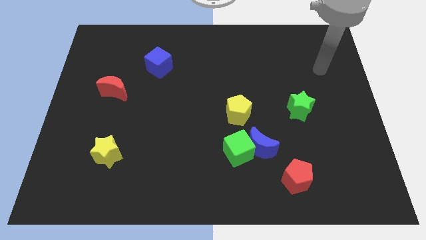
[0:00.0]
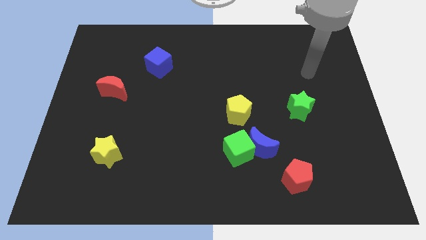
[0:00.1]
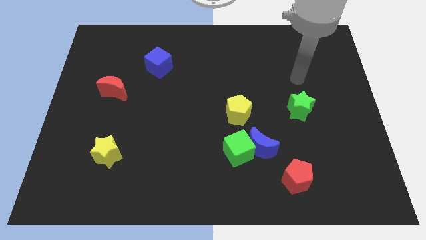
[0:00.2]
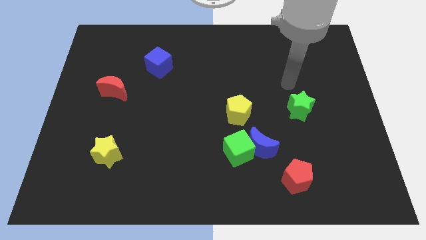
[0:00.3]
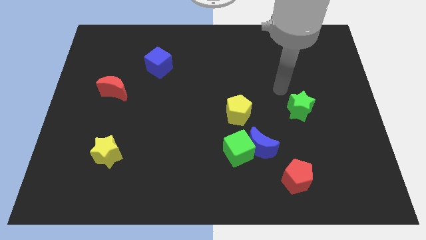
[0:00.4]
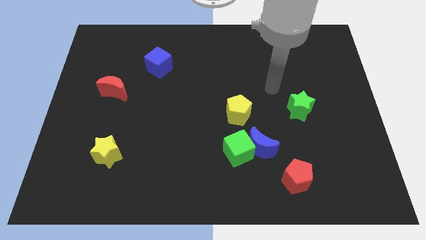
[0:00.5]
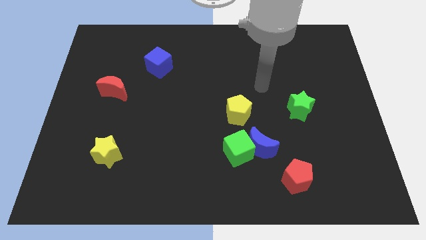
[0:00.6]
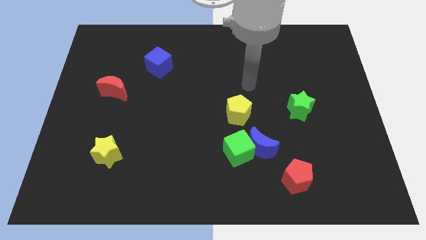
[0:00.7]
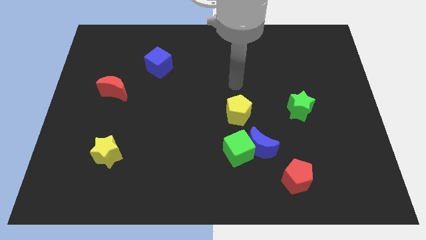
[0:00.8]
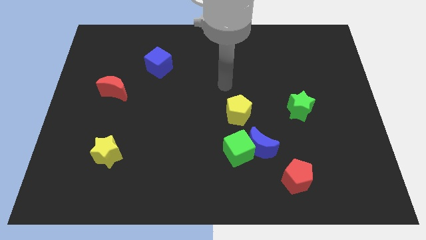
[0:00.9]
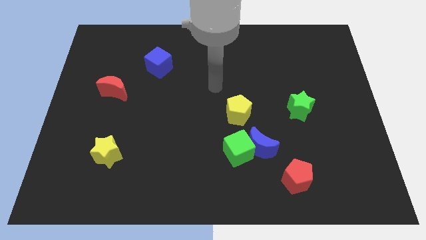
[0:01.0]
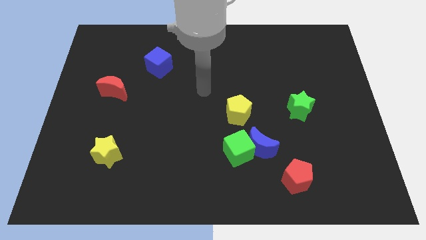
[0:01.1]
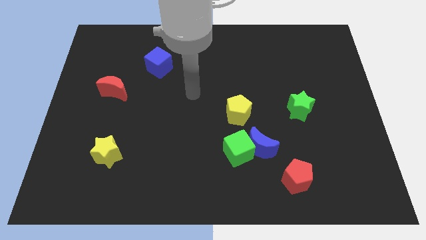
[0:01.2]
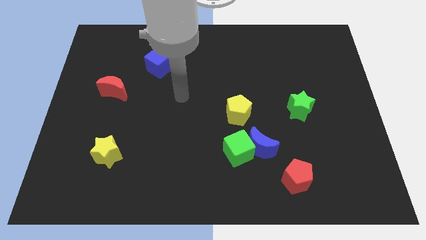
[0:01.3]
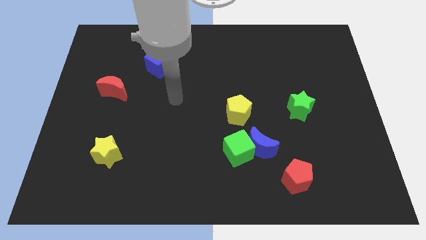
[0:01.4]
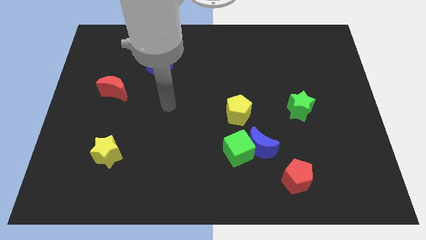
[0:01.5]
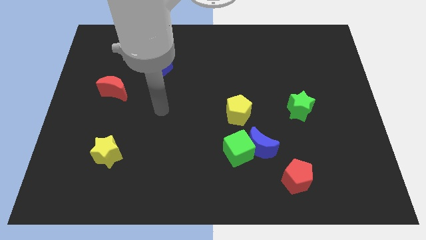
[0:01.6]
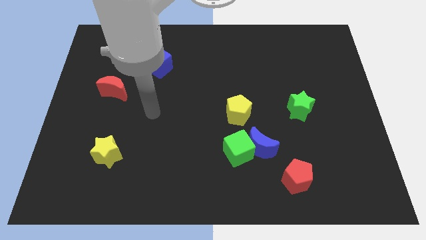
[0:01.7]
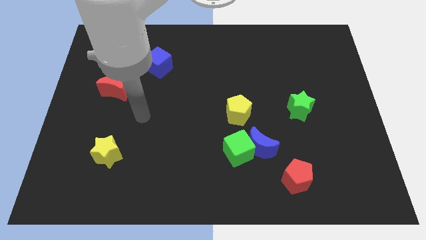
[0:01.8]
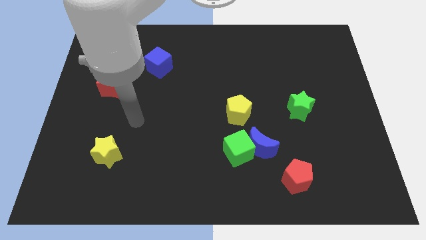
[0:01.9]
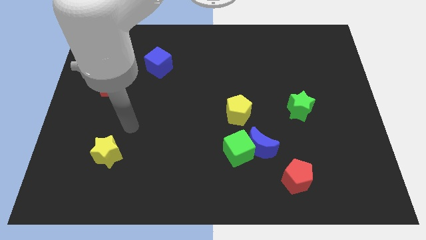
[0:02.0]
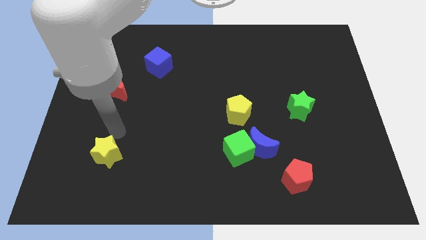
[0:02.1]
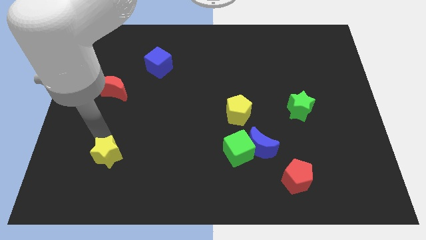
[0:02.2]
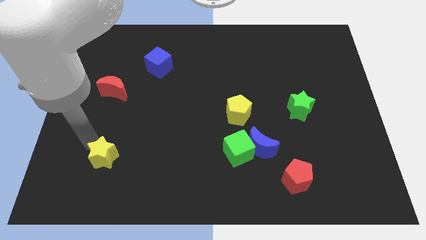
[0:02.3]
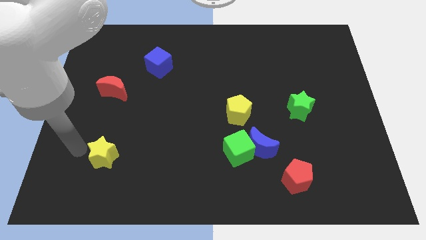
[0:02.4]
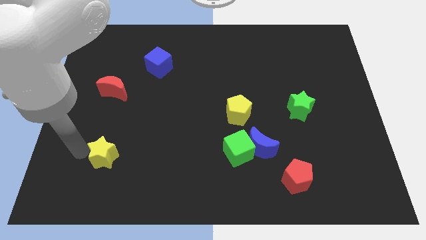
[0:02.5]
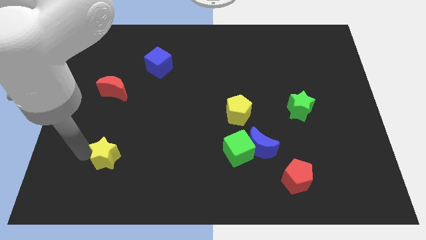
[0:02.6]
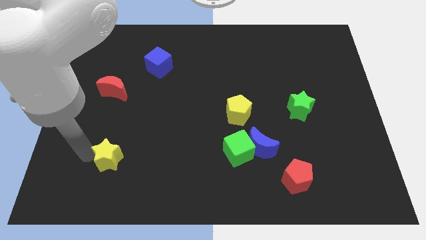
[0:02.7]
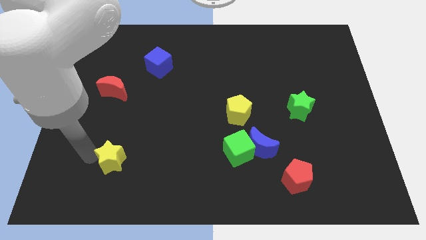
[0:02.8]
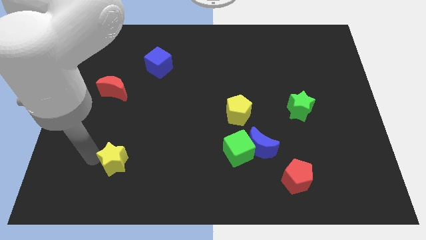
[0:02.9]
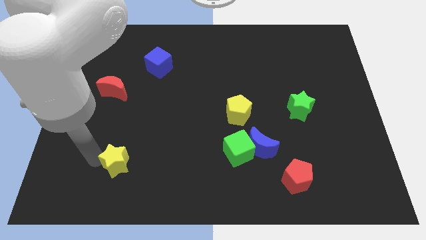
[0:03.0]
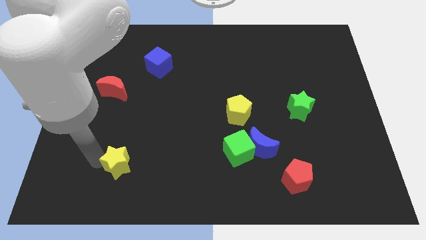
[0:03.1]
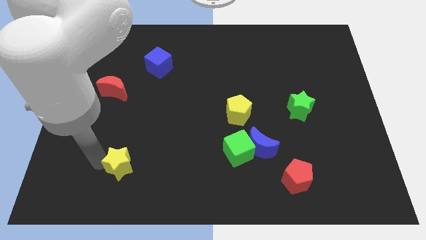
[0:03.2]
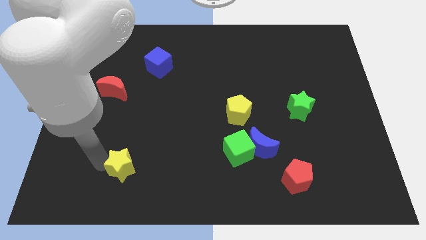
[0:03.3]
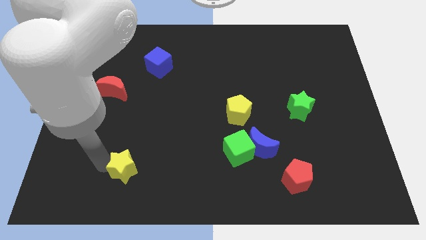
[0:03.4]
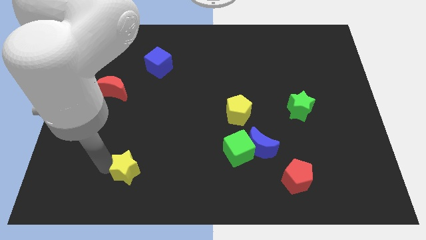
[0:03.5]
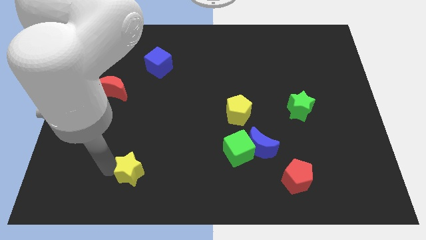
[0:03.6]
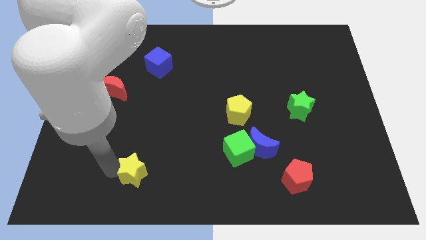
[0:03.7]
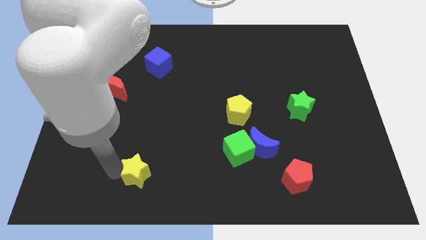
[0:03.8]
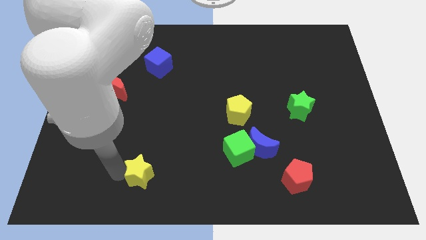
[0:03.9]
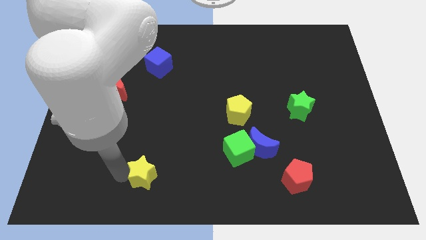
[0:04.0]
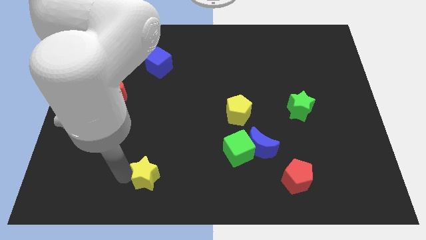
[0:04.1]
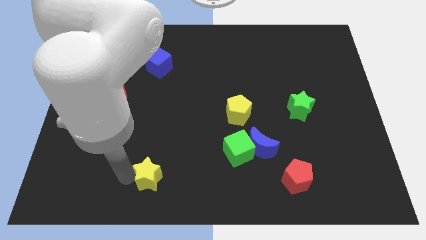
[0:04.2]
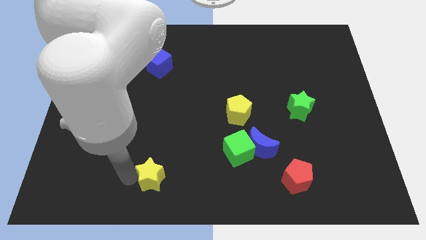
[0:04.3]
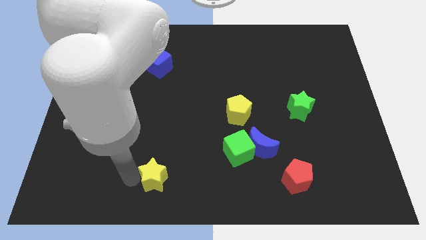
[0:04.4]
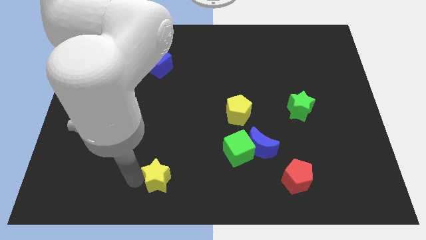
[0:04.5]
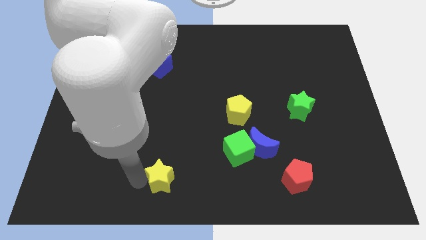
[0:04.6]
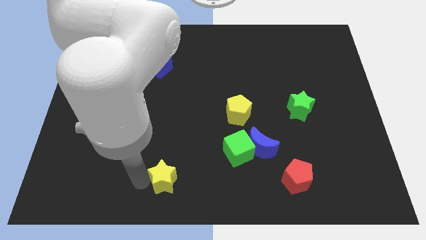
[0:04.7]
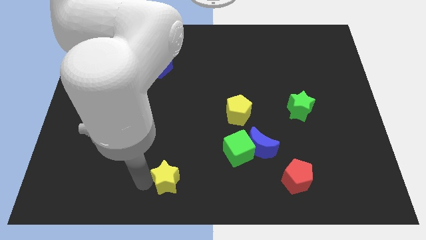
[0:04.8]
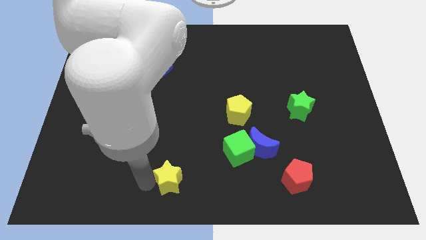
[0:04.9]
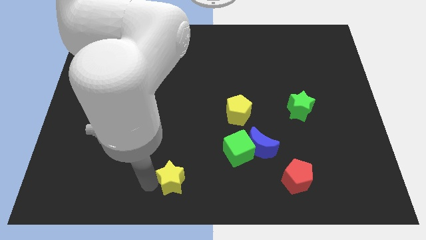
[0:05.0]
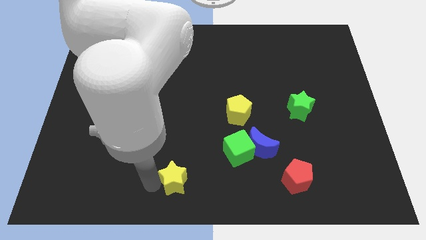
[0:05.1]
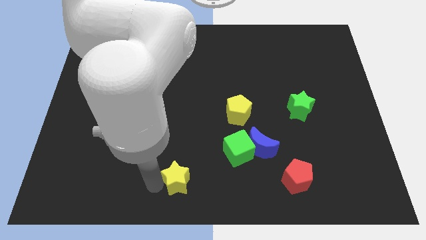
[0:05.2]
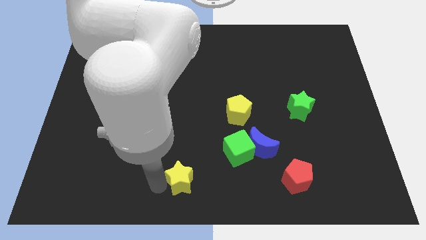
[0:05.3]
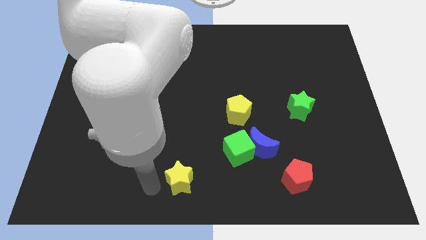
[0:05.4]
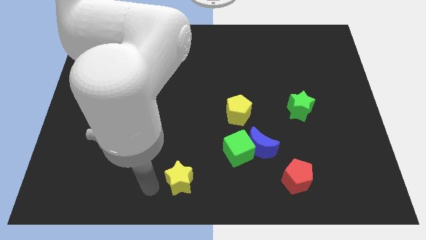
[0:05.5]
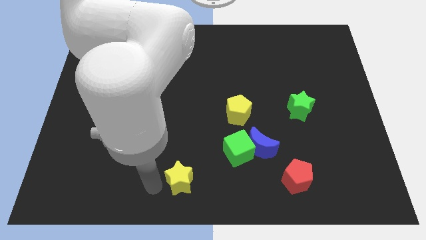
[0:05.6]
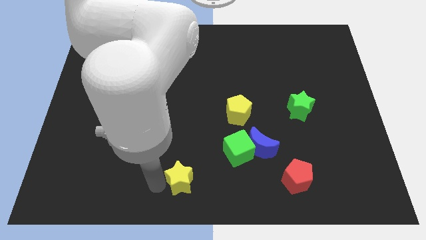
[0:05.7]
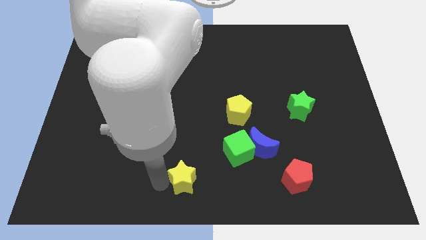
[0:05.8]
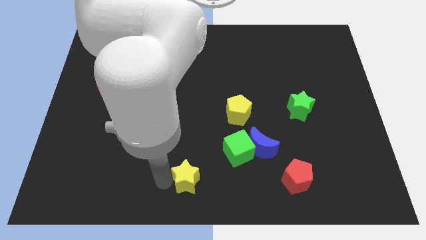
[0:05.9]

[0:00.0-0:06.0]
put the yellow star diagonally down and to the left of the green cube

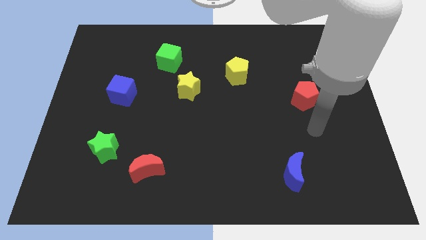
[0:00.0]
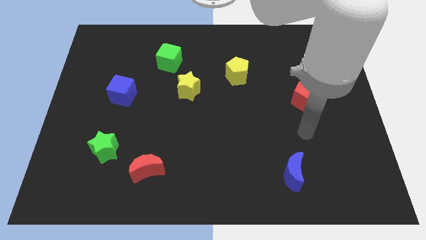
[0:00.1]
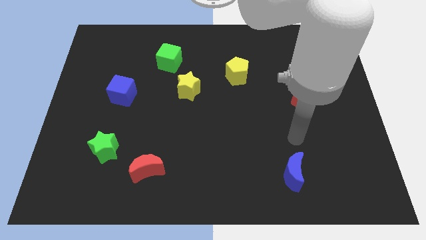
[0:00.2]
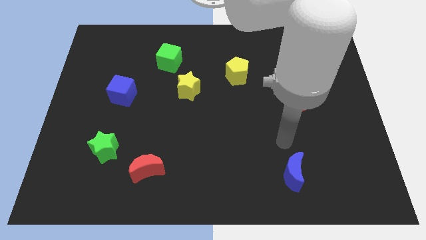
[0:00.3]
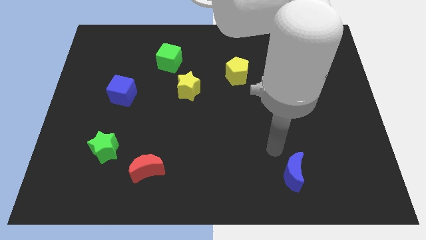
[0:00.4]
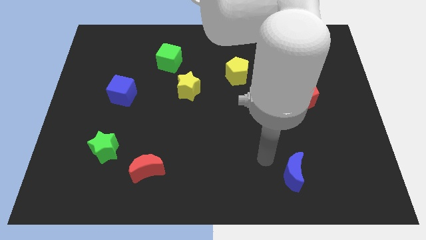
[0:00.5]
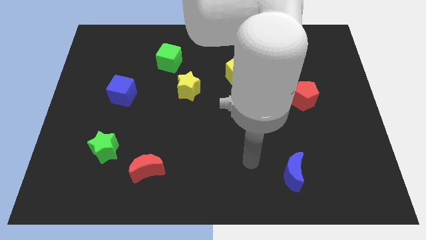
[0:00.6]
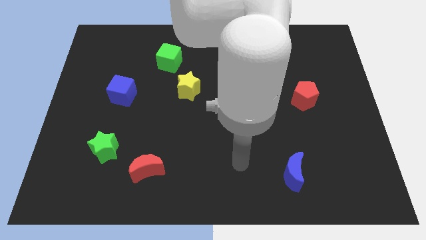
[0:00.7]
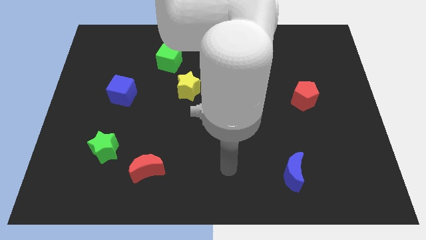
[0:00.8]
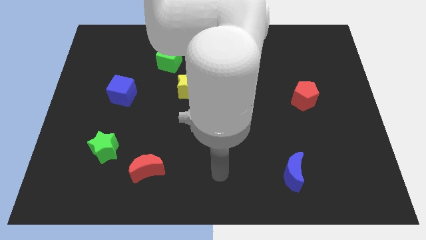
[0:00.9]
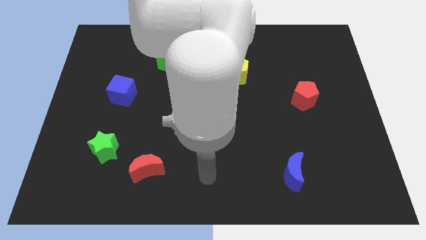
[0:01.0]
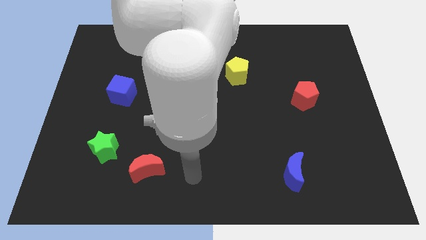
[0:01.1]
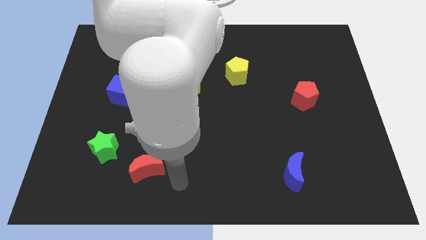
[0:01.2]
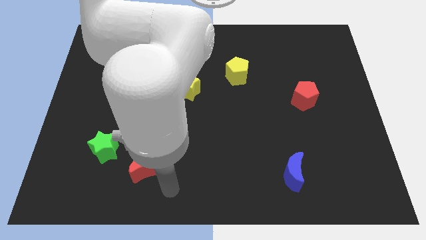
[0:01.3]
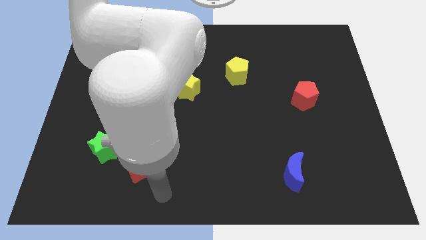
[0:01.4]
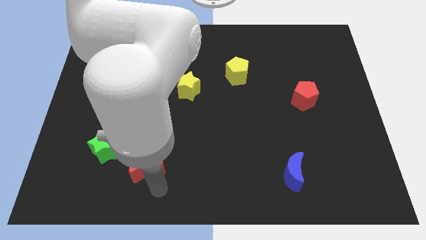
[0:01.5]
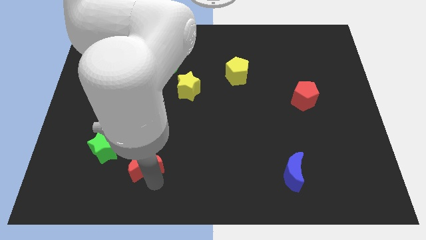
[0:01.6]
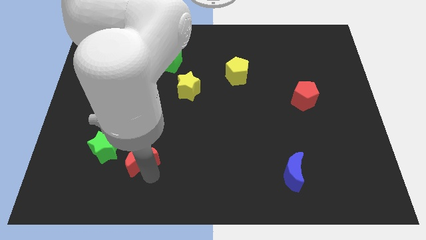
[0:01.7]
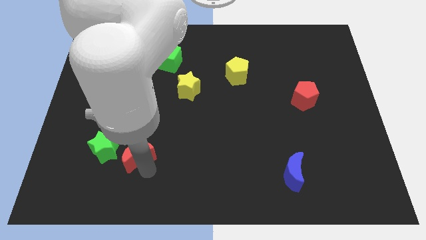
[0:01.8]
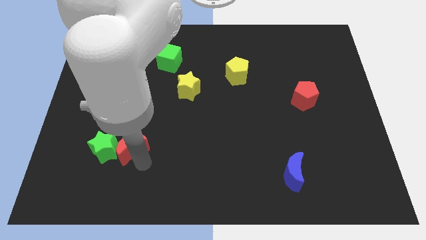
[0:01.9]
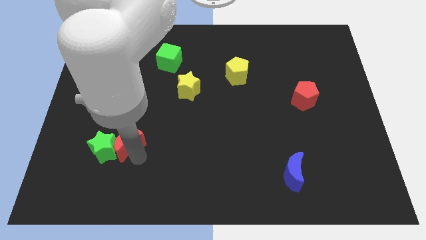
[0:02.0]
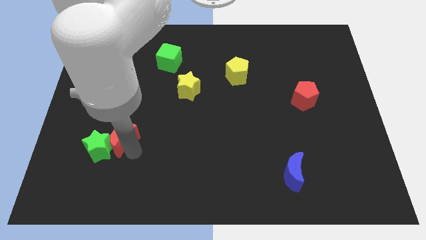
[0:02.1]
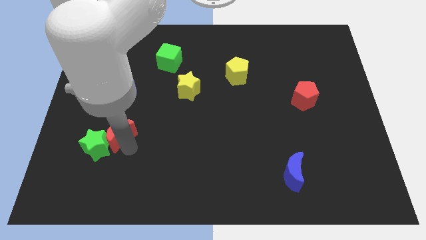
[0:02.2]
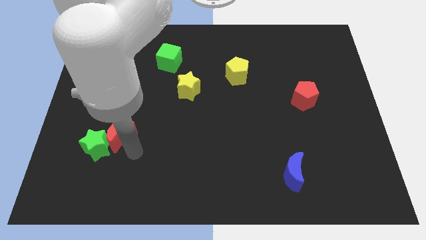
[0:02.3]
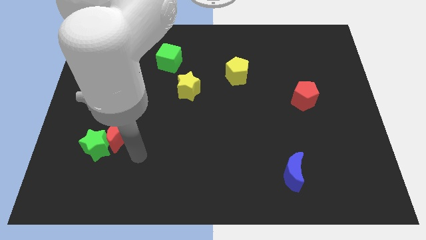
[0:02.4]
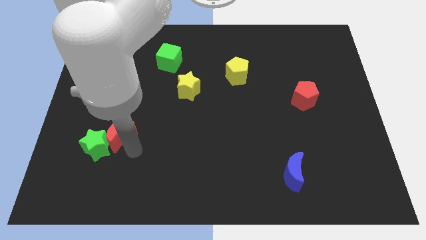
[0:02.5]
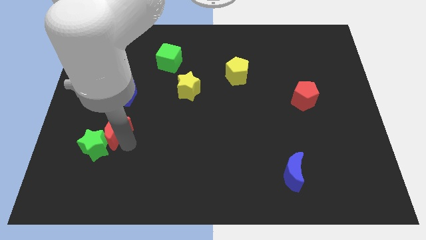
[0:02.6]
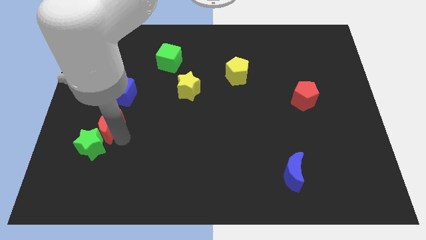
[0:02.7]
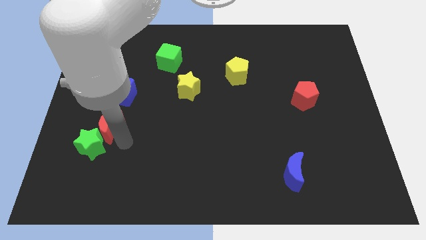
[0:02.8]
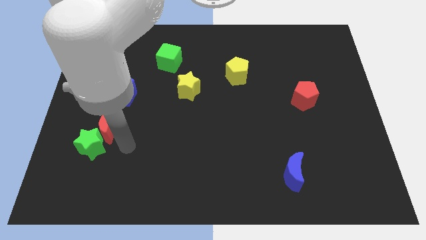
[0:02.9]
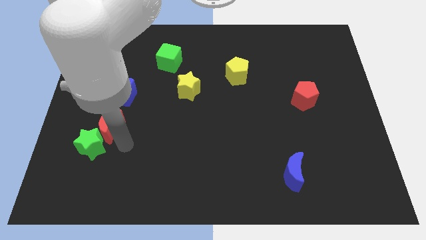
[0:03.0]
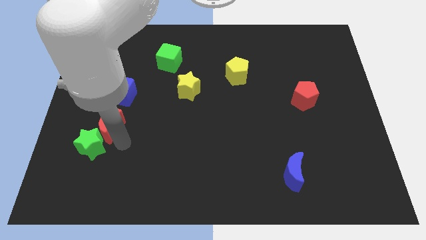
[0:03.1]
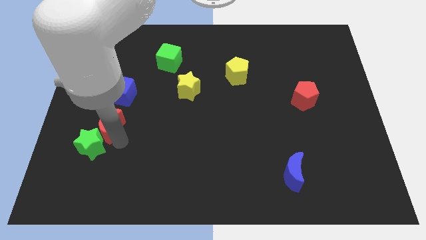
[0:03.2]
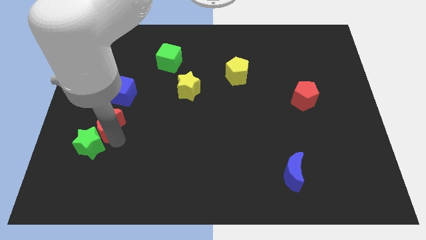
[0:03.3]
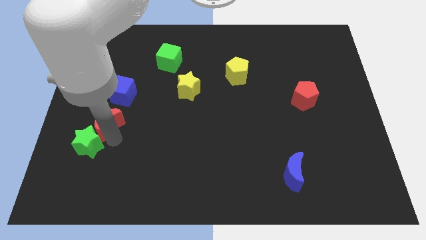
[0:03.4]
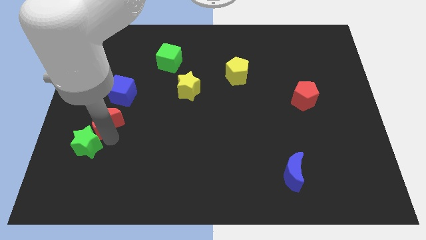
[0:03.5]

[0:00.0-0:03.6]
push the red moon to the bottom left side of the blue cube
